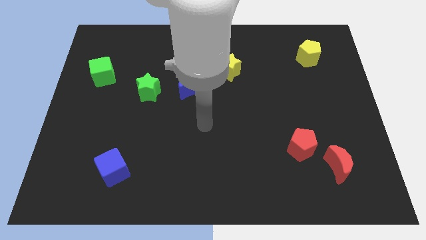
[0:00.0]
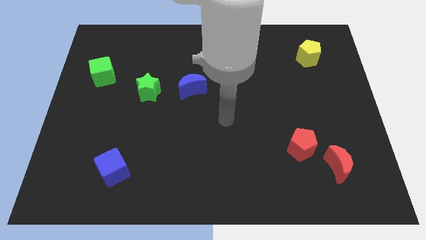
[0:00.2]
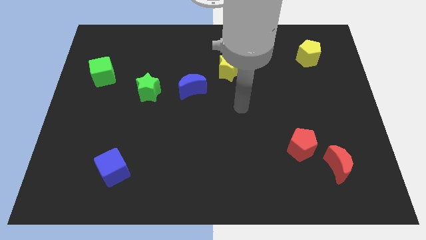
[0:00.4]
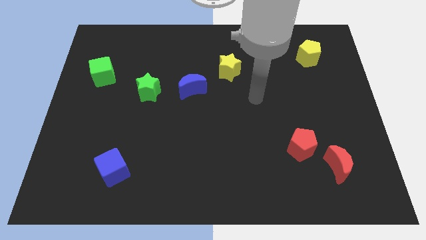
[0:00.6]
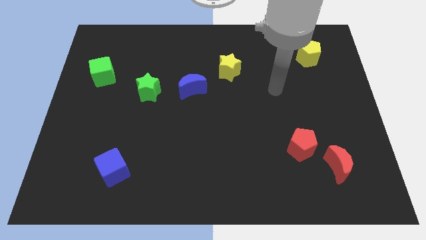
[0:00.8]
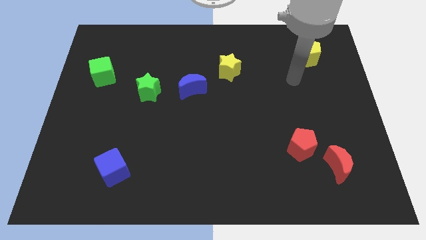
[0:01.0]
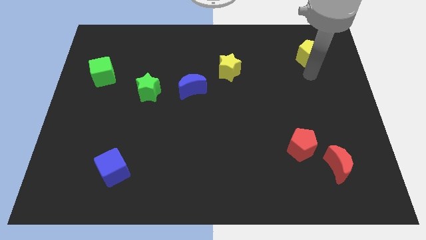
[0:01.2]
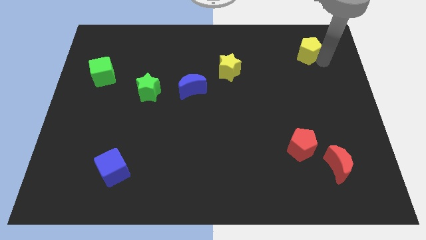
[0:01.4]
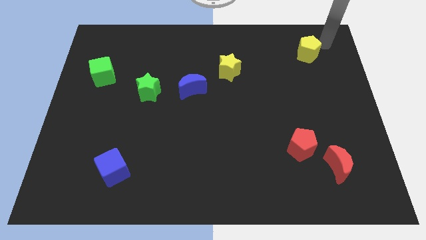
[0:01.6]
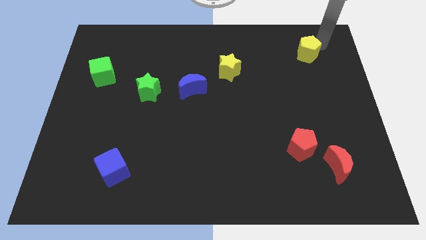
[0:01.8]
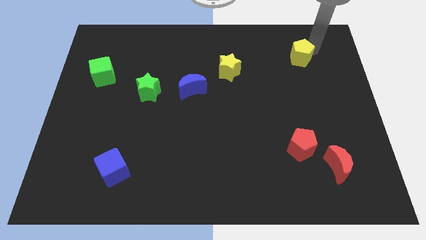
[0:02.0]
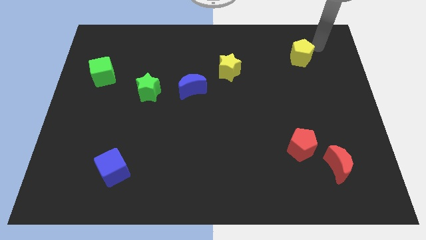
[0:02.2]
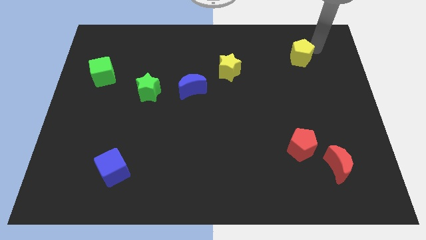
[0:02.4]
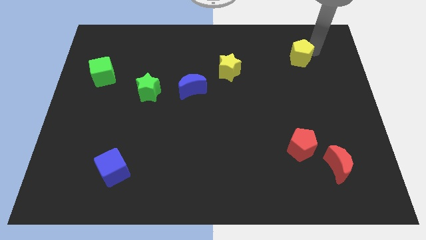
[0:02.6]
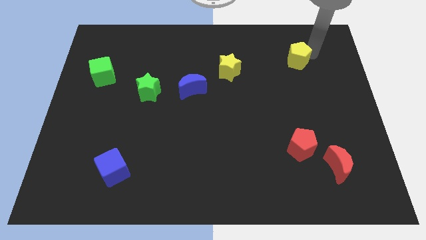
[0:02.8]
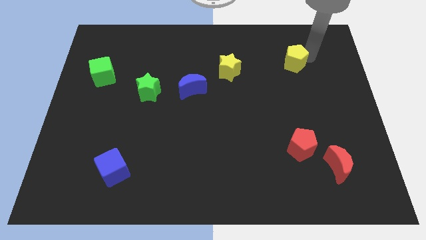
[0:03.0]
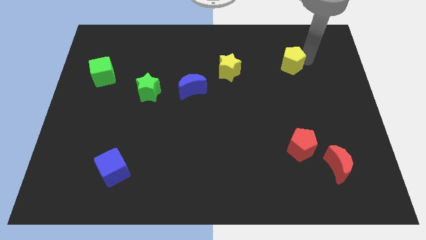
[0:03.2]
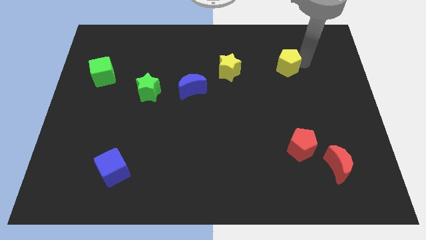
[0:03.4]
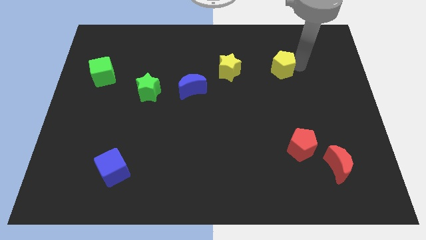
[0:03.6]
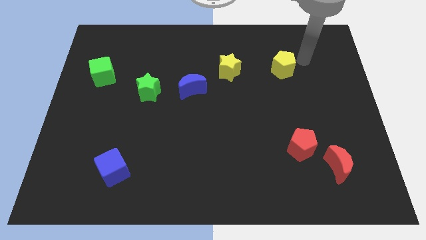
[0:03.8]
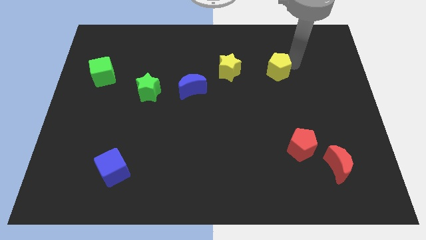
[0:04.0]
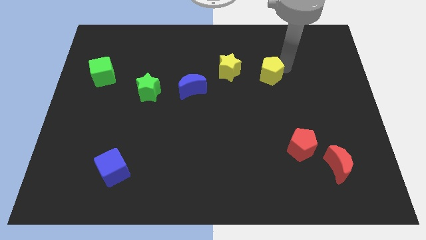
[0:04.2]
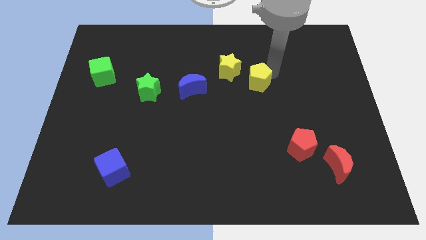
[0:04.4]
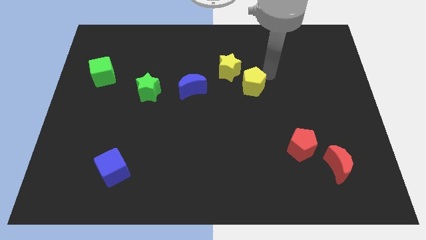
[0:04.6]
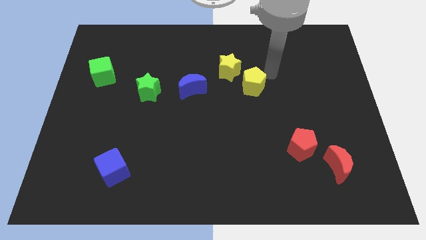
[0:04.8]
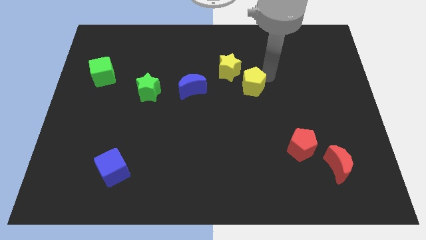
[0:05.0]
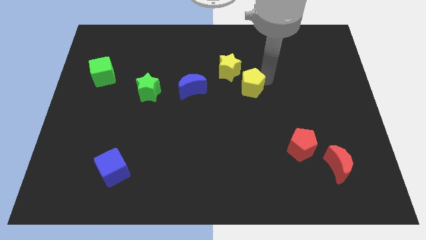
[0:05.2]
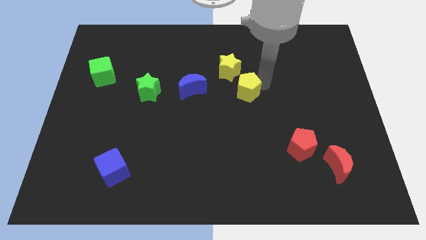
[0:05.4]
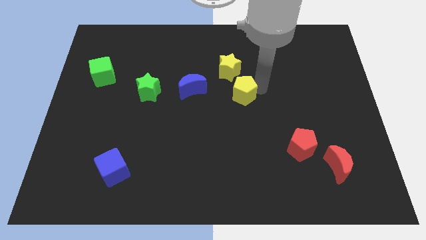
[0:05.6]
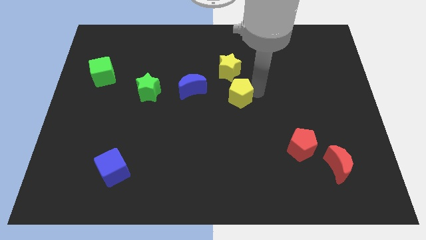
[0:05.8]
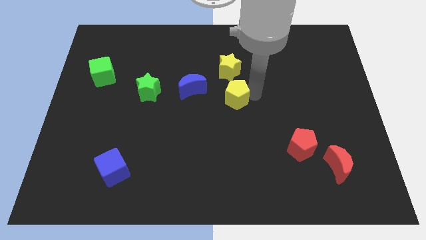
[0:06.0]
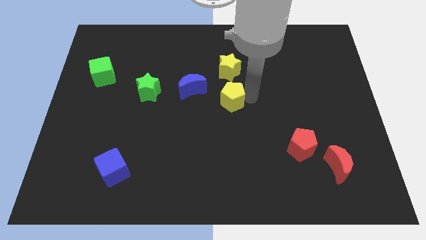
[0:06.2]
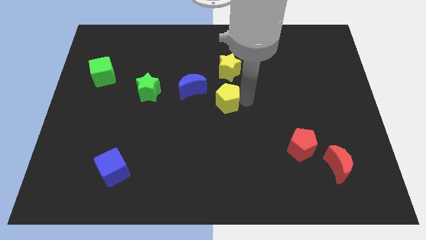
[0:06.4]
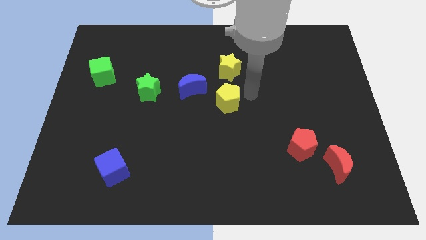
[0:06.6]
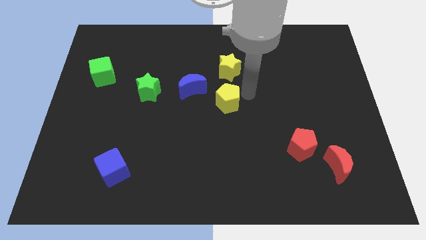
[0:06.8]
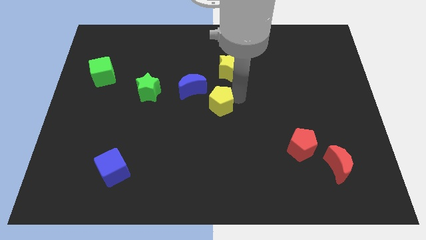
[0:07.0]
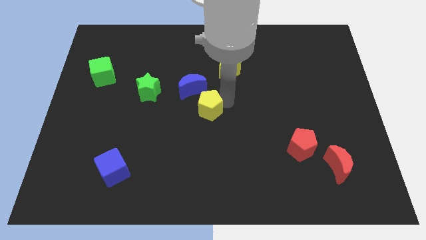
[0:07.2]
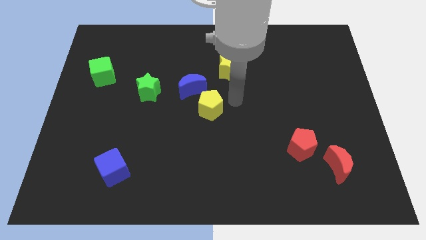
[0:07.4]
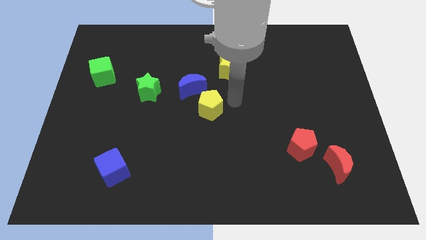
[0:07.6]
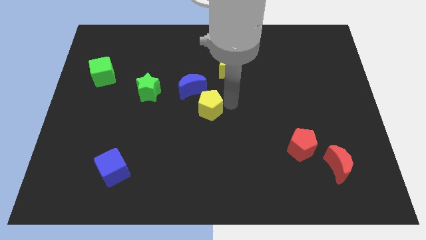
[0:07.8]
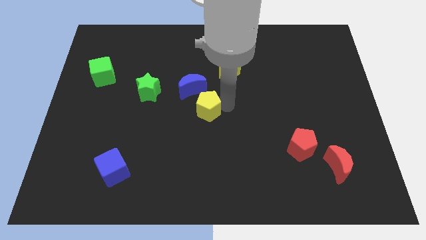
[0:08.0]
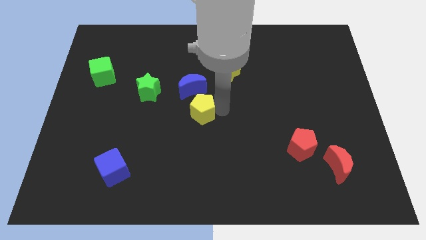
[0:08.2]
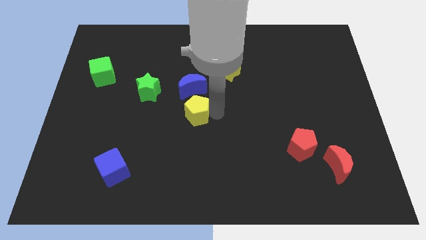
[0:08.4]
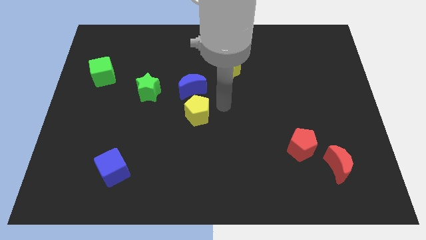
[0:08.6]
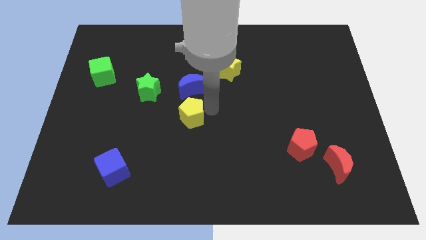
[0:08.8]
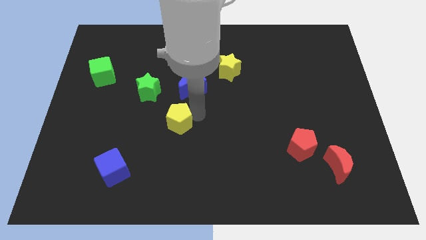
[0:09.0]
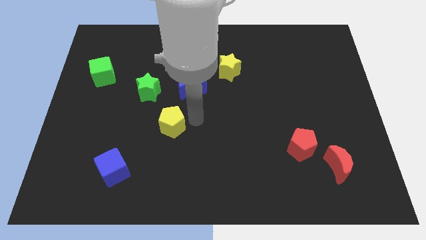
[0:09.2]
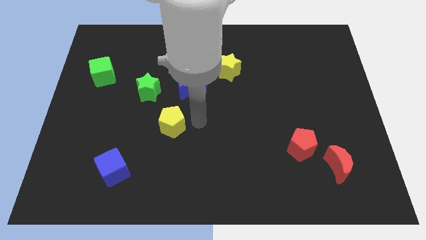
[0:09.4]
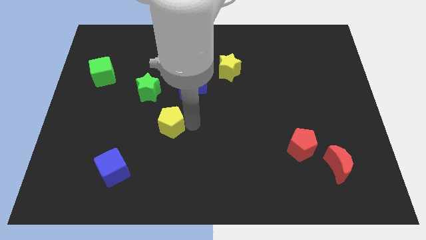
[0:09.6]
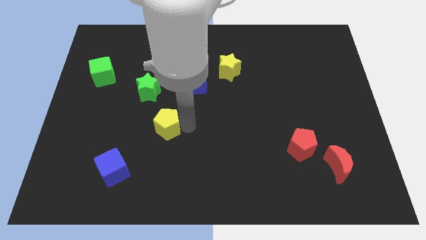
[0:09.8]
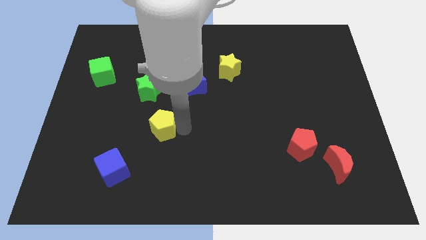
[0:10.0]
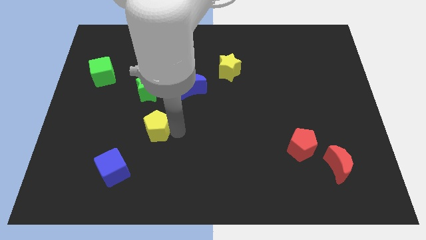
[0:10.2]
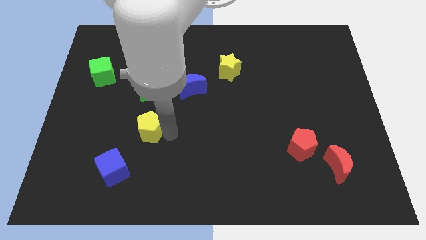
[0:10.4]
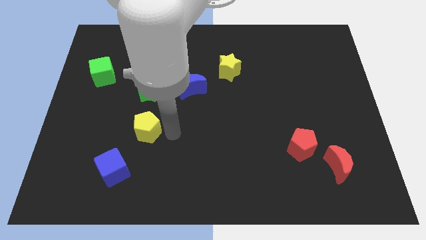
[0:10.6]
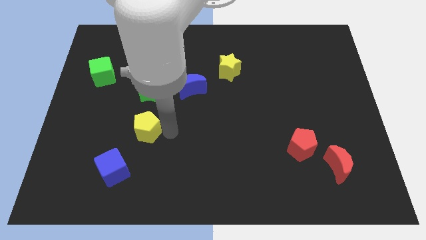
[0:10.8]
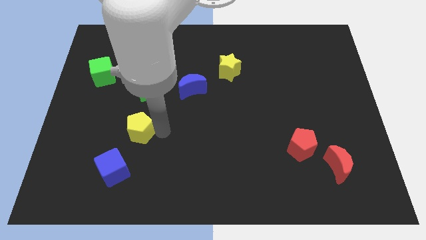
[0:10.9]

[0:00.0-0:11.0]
put the yellow pentagon to the top of the blue cube

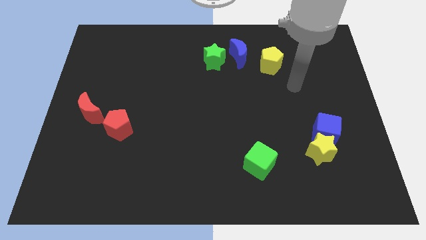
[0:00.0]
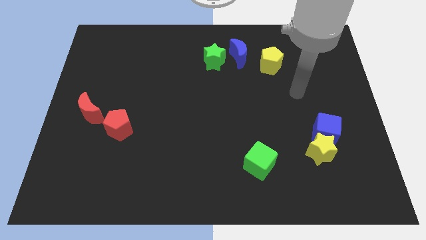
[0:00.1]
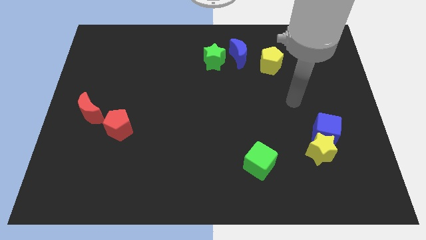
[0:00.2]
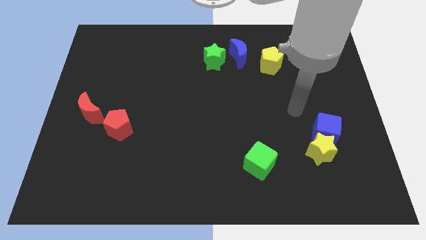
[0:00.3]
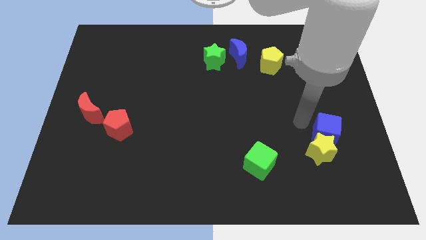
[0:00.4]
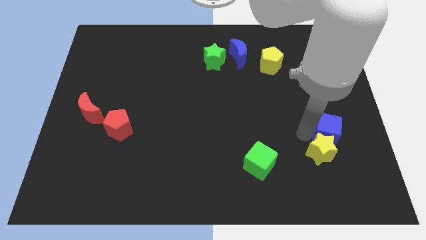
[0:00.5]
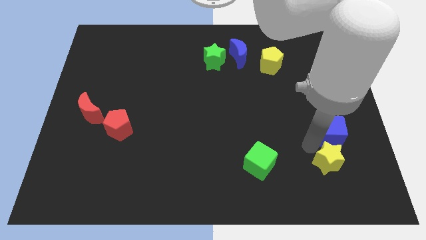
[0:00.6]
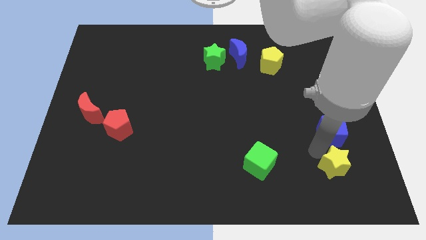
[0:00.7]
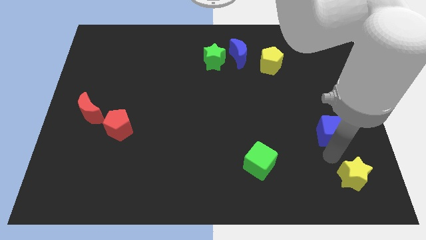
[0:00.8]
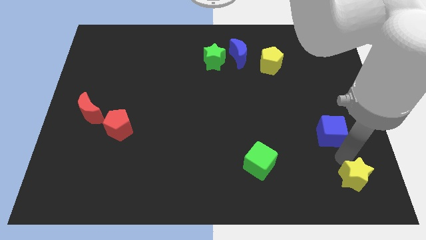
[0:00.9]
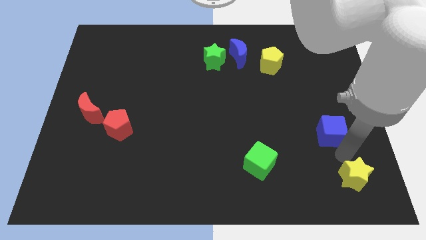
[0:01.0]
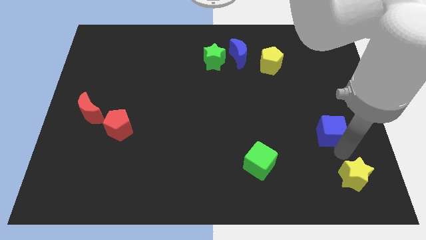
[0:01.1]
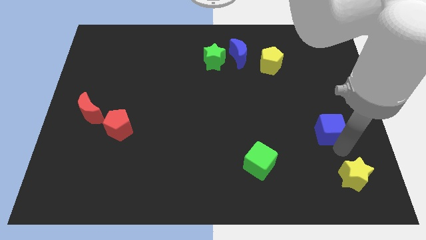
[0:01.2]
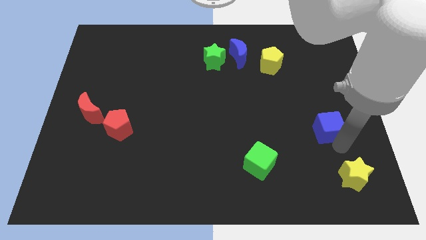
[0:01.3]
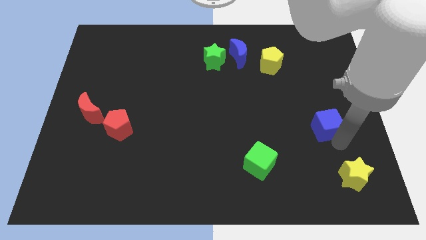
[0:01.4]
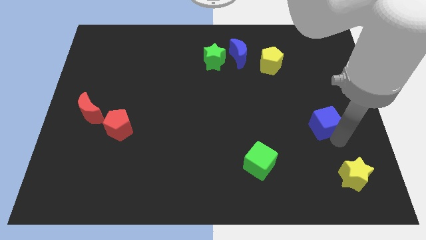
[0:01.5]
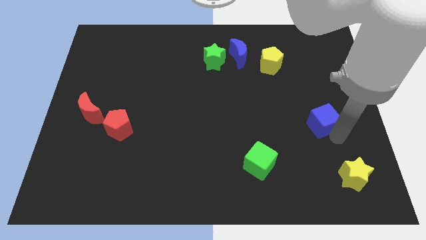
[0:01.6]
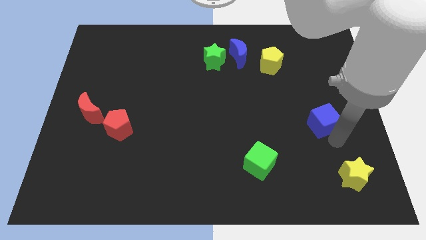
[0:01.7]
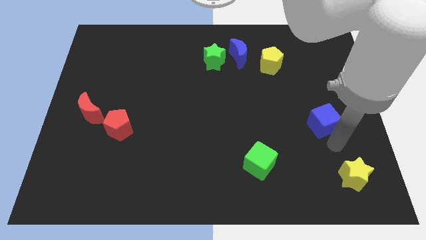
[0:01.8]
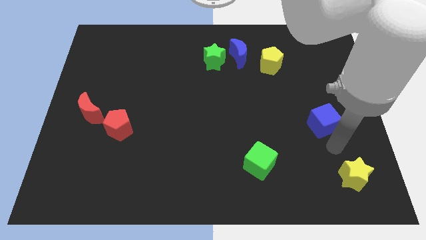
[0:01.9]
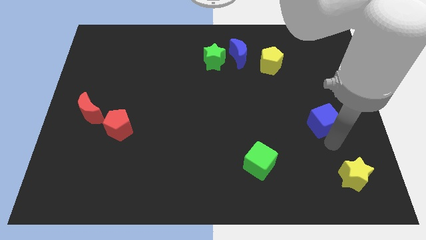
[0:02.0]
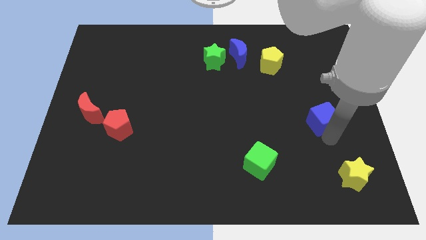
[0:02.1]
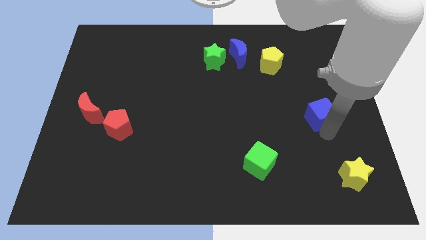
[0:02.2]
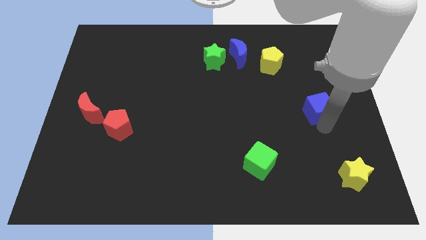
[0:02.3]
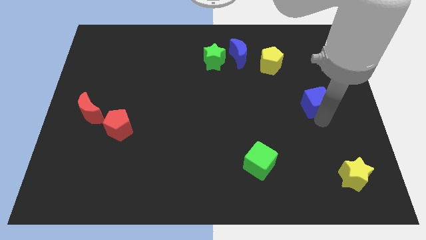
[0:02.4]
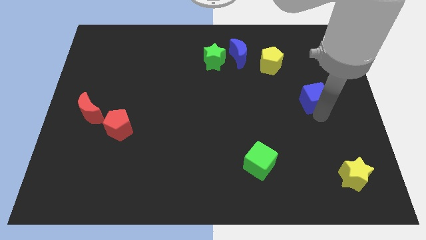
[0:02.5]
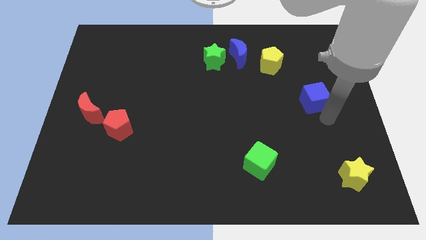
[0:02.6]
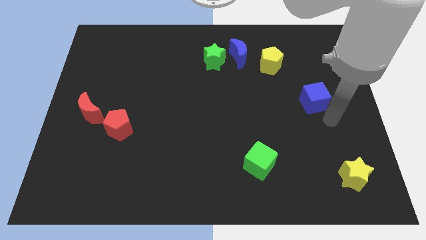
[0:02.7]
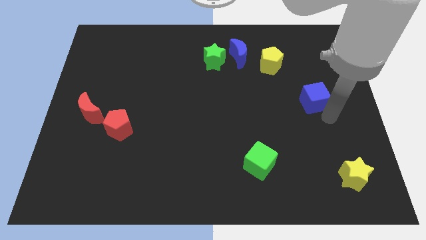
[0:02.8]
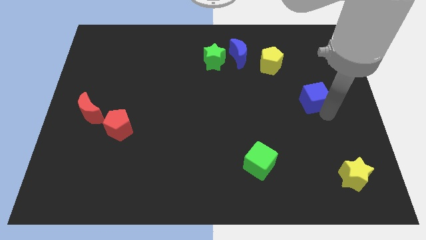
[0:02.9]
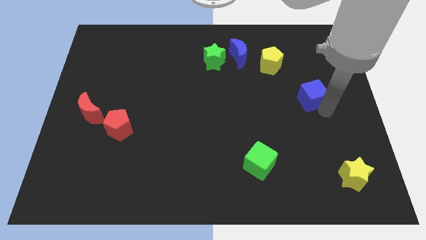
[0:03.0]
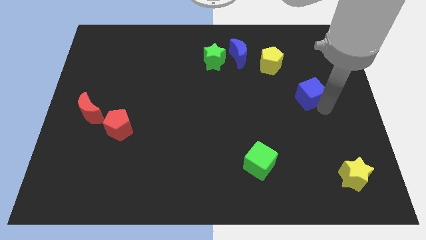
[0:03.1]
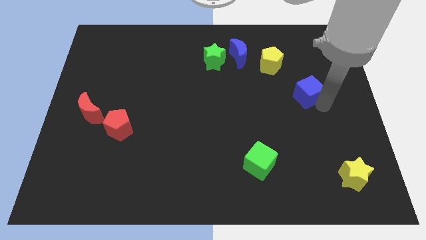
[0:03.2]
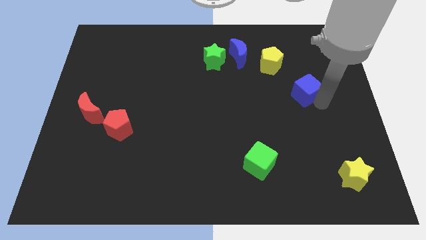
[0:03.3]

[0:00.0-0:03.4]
put the blue cube to the bottom right of the yellow pentagon
